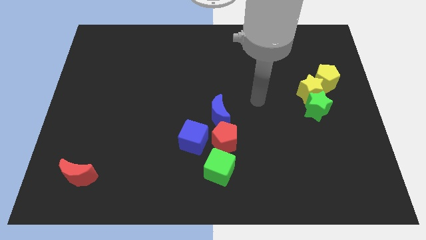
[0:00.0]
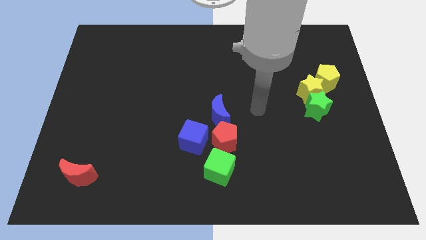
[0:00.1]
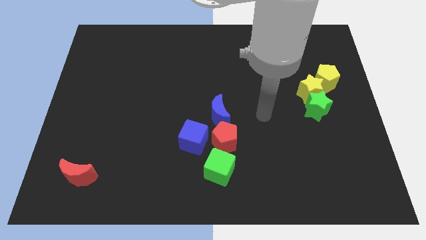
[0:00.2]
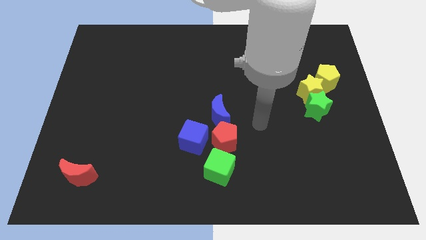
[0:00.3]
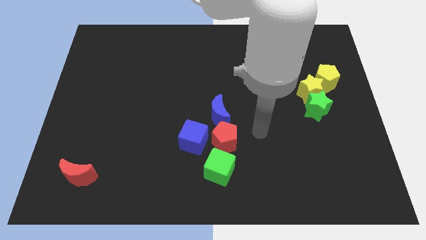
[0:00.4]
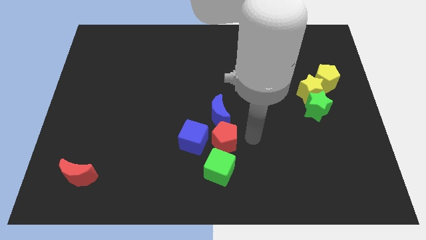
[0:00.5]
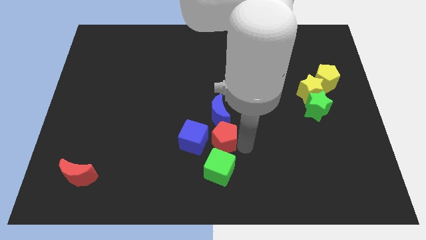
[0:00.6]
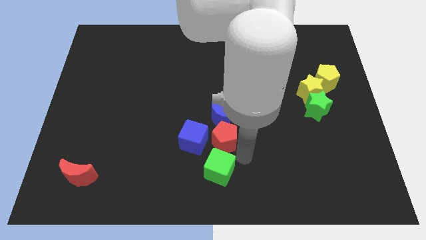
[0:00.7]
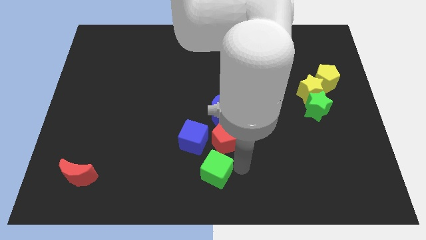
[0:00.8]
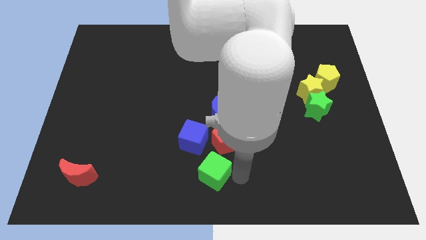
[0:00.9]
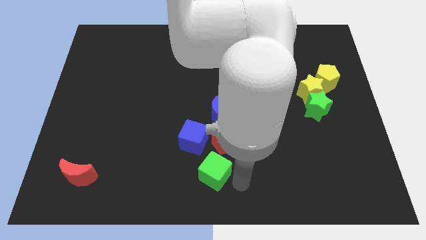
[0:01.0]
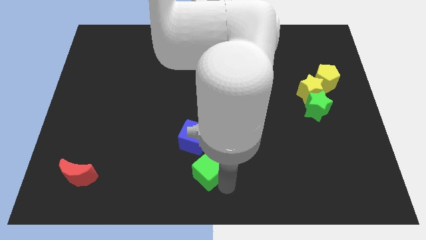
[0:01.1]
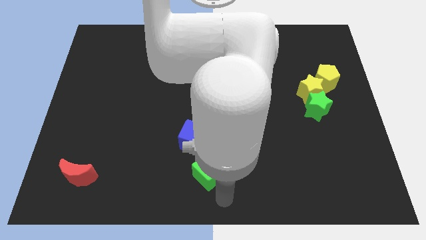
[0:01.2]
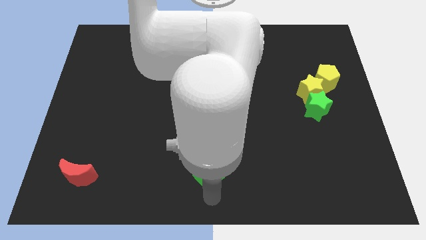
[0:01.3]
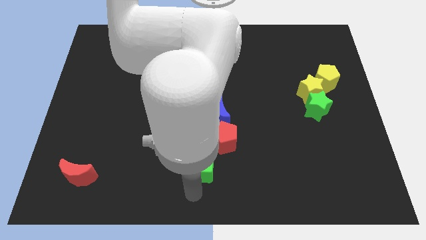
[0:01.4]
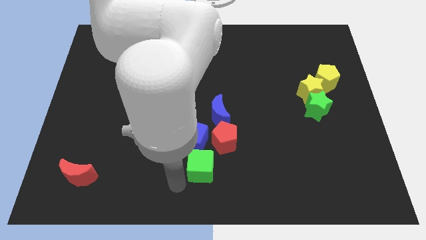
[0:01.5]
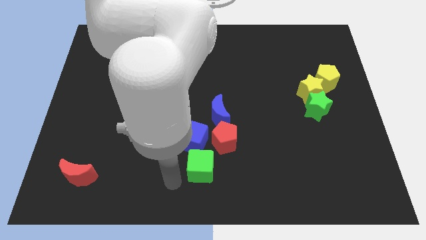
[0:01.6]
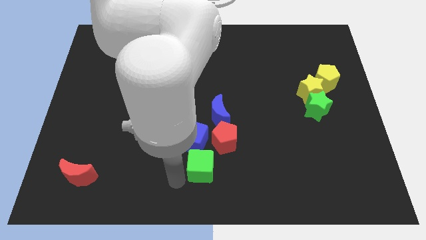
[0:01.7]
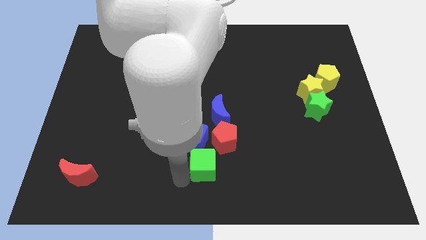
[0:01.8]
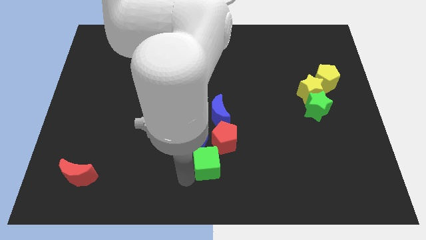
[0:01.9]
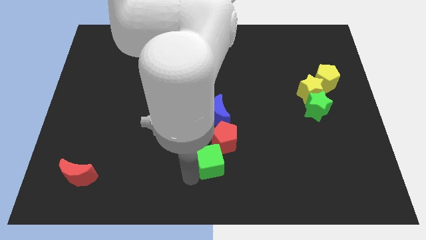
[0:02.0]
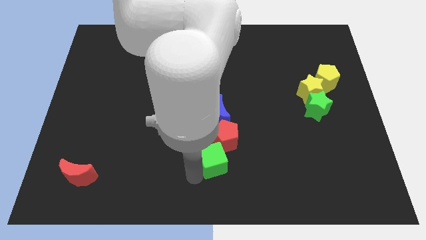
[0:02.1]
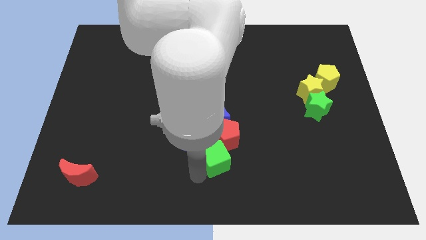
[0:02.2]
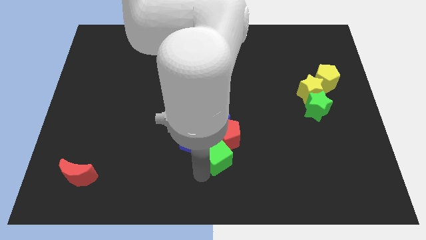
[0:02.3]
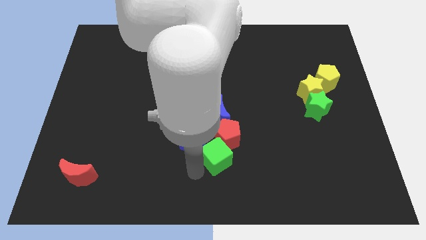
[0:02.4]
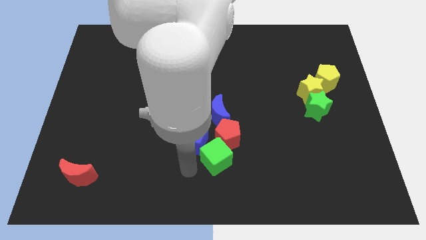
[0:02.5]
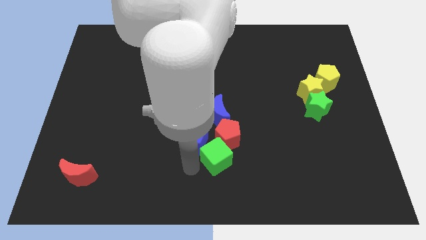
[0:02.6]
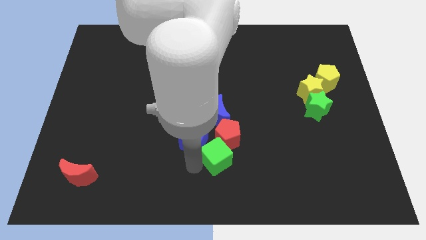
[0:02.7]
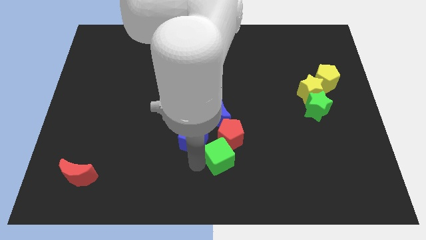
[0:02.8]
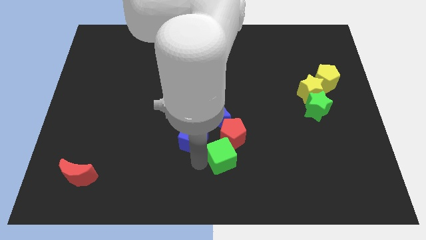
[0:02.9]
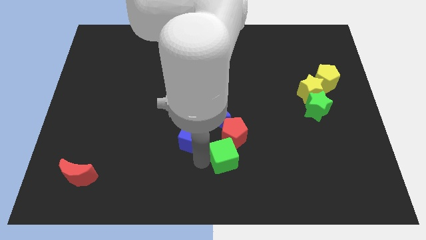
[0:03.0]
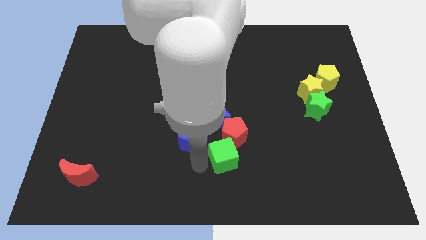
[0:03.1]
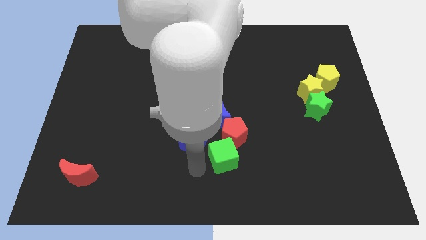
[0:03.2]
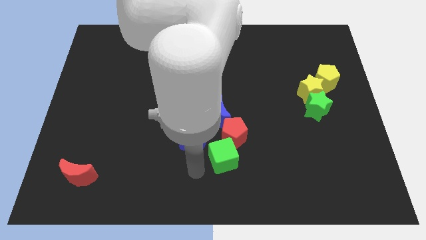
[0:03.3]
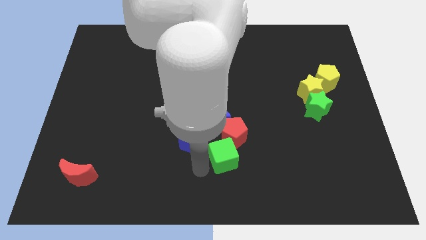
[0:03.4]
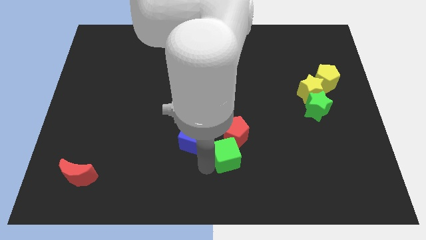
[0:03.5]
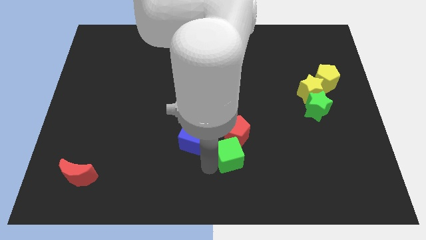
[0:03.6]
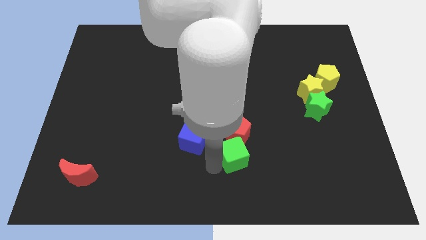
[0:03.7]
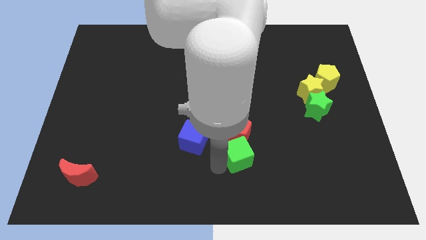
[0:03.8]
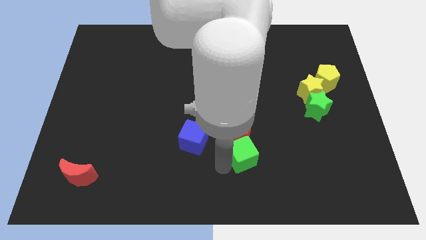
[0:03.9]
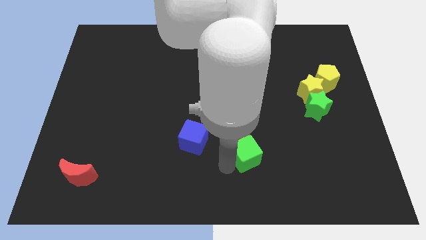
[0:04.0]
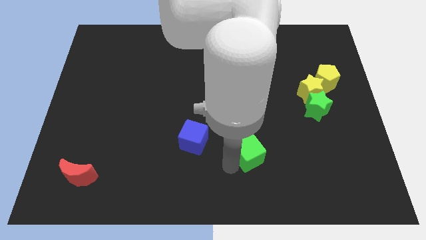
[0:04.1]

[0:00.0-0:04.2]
slide the green cube a little up and to the right

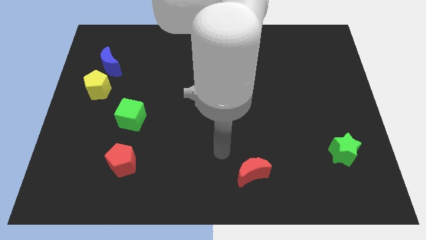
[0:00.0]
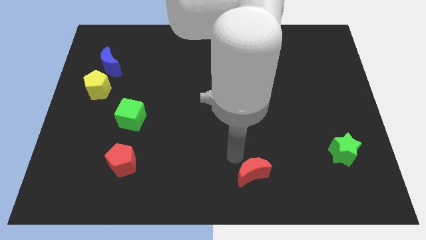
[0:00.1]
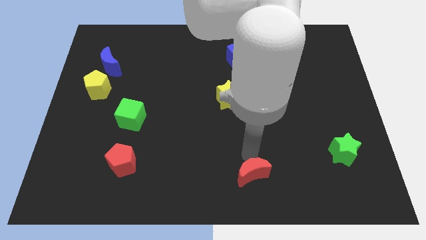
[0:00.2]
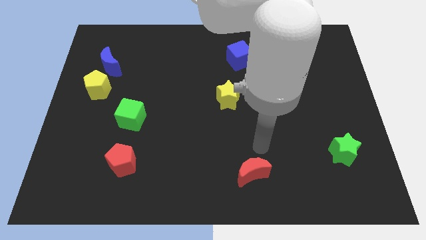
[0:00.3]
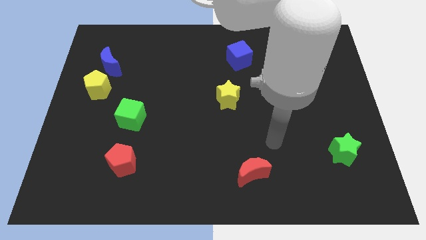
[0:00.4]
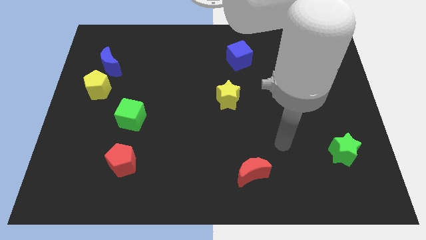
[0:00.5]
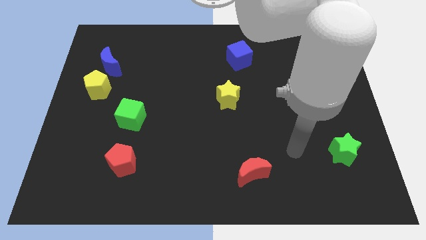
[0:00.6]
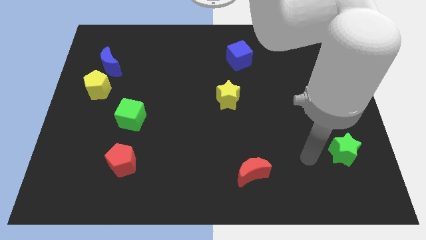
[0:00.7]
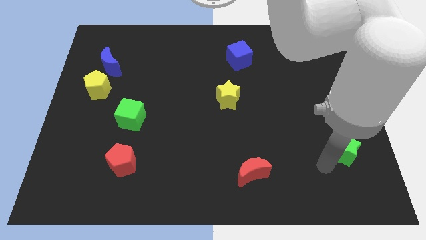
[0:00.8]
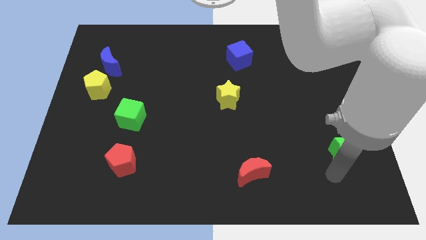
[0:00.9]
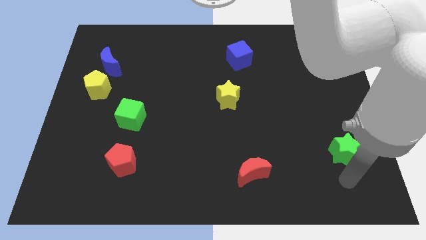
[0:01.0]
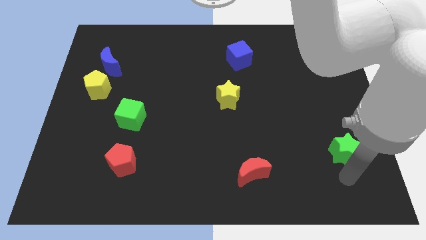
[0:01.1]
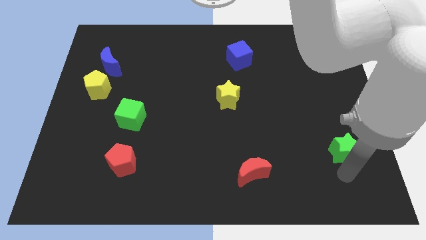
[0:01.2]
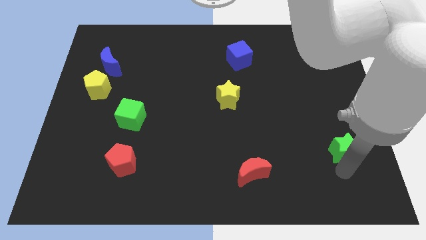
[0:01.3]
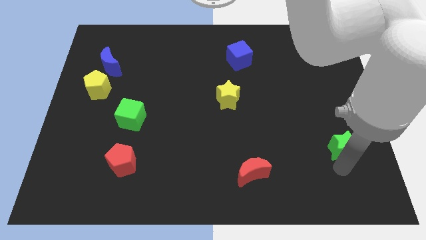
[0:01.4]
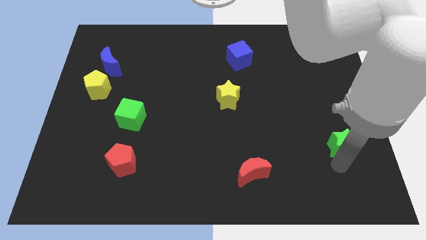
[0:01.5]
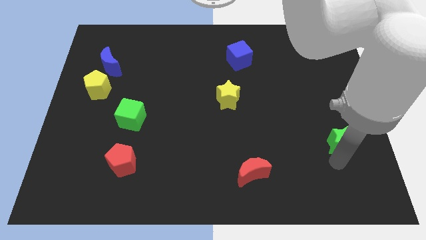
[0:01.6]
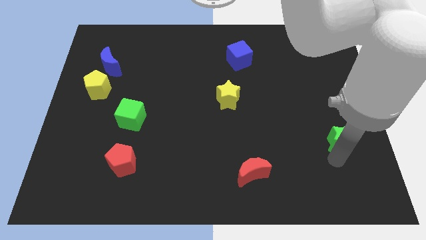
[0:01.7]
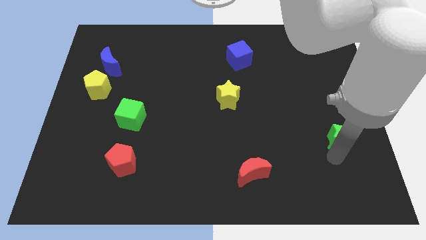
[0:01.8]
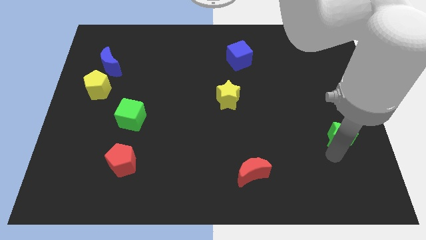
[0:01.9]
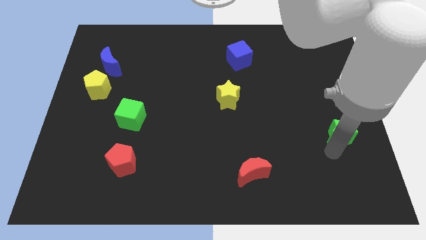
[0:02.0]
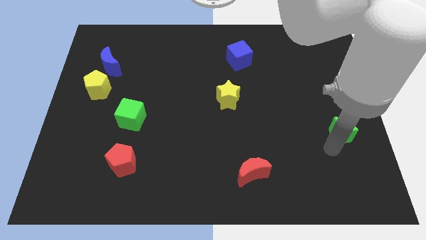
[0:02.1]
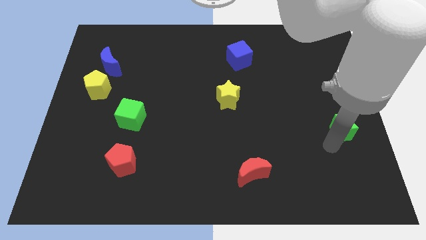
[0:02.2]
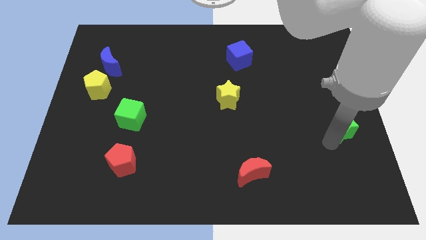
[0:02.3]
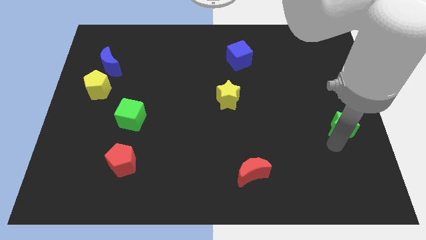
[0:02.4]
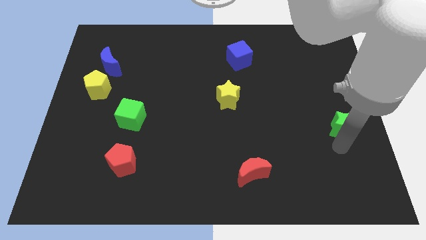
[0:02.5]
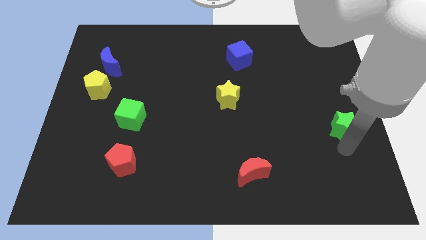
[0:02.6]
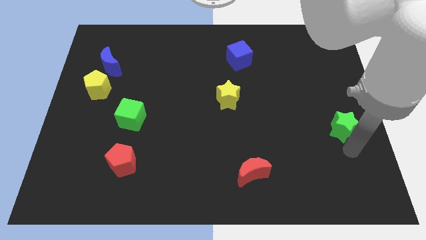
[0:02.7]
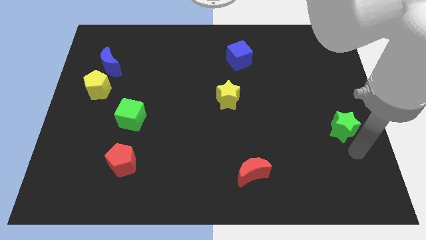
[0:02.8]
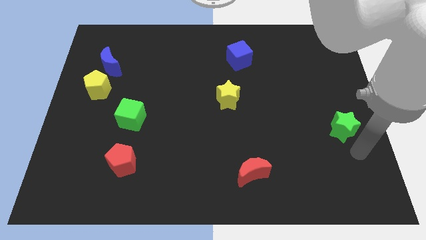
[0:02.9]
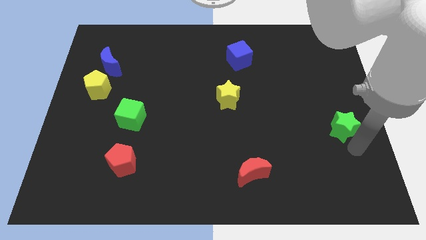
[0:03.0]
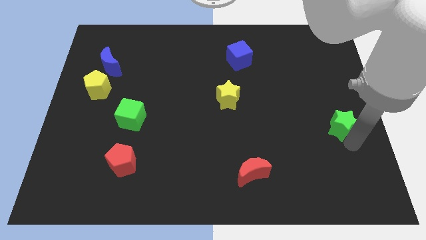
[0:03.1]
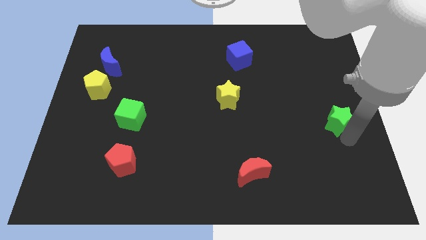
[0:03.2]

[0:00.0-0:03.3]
push the green star up a little bit

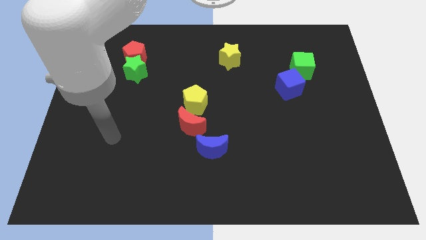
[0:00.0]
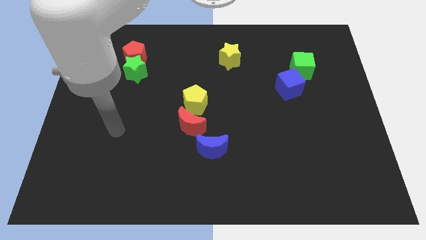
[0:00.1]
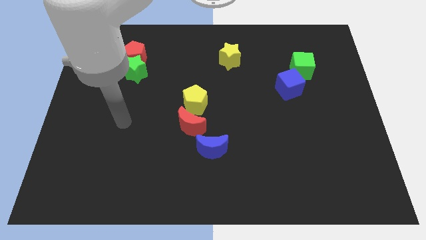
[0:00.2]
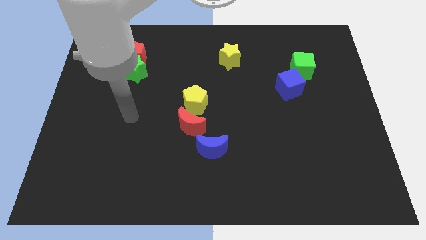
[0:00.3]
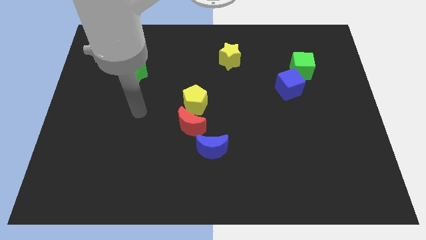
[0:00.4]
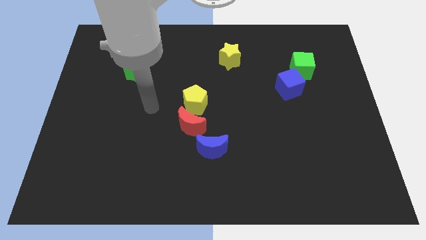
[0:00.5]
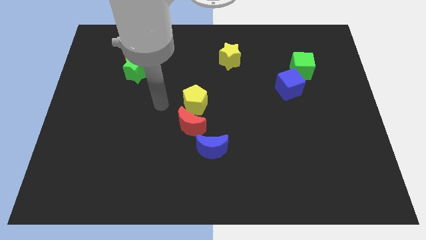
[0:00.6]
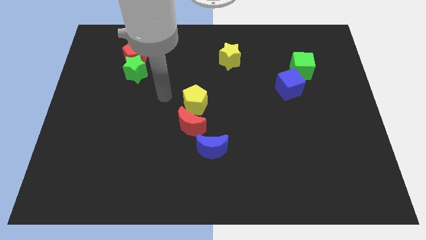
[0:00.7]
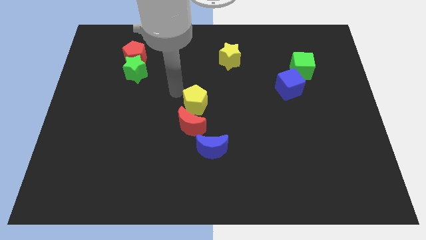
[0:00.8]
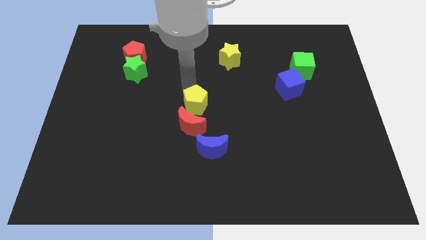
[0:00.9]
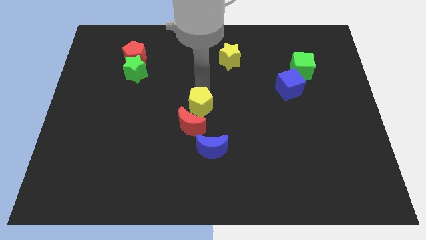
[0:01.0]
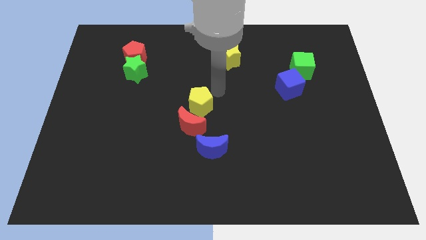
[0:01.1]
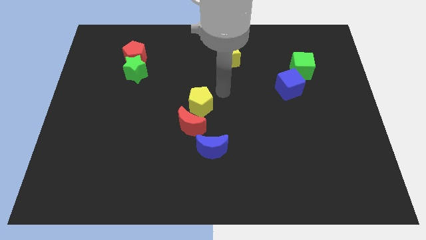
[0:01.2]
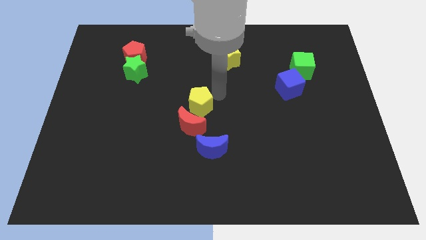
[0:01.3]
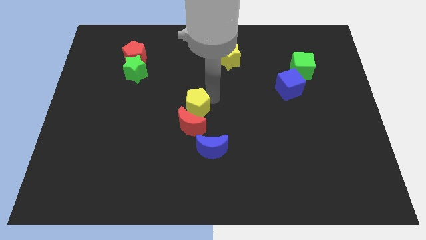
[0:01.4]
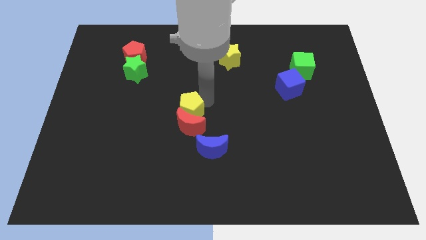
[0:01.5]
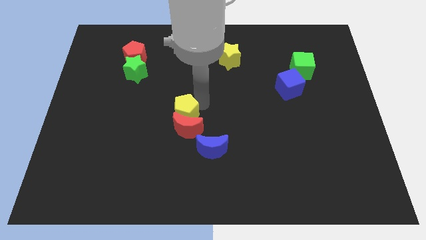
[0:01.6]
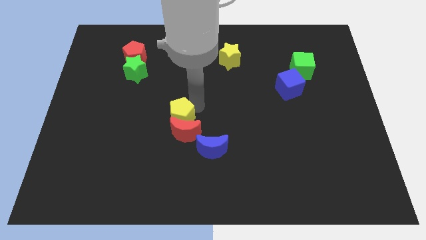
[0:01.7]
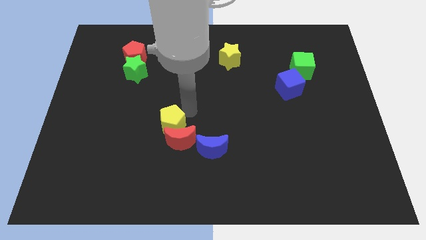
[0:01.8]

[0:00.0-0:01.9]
push the yellow pentagon slightly down and to the left diagonally
